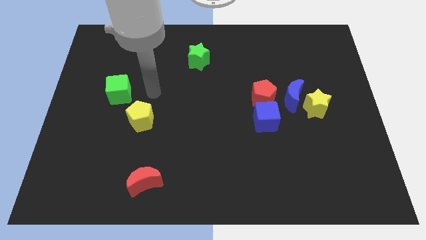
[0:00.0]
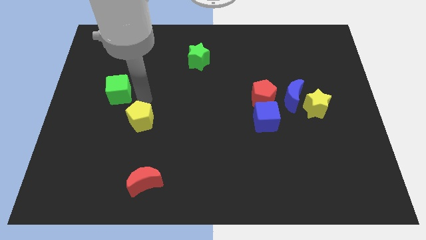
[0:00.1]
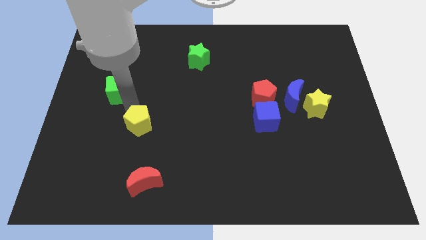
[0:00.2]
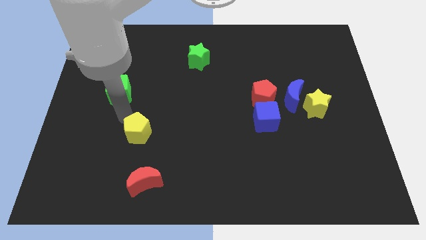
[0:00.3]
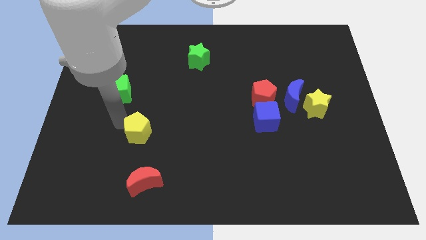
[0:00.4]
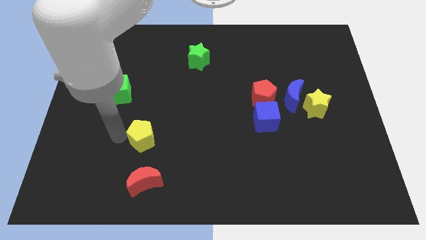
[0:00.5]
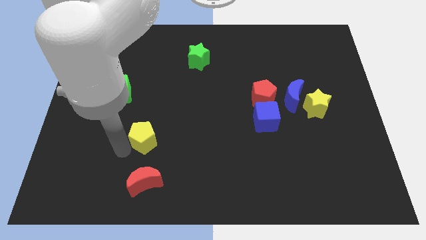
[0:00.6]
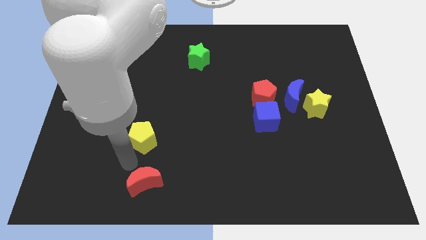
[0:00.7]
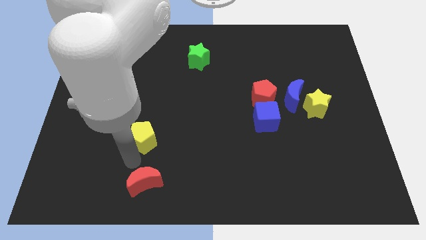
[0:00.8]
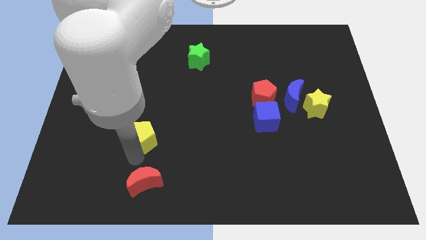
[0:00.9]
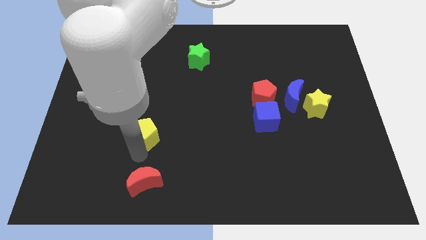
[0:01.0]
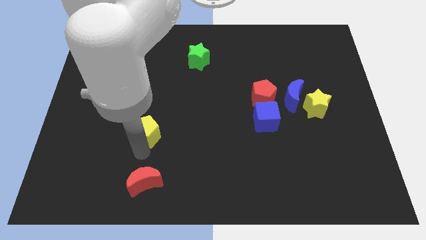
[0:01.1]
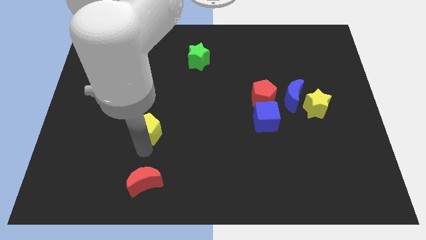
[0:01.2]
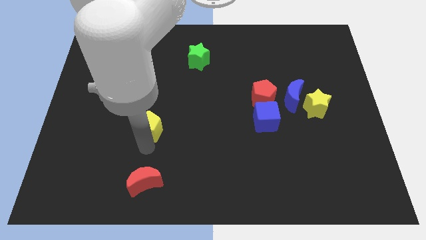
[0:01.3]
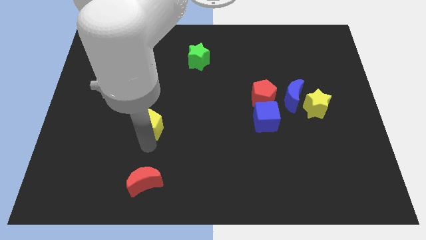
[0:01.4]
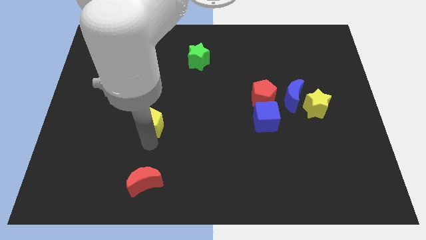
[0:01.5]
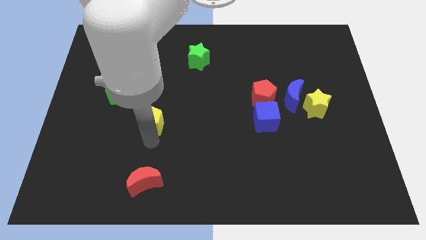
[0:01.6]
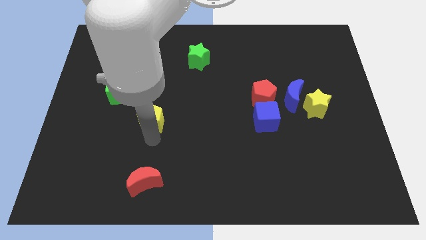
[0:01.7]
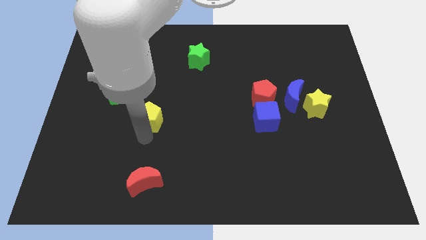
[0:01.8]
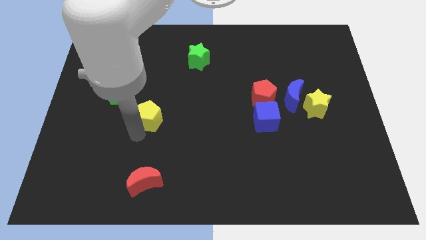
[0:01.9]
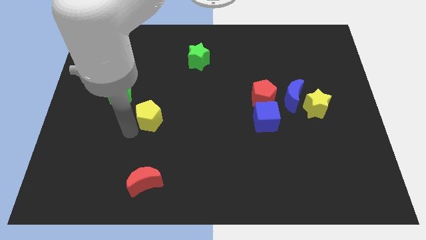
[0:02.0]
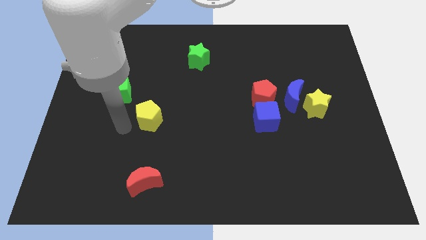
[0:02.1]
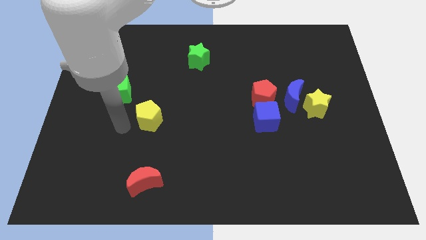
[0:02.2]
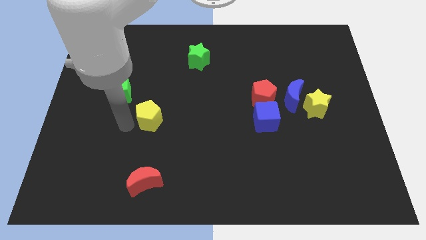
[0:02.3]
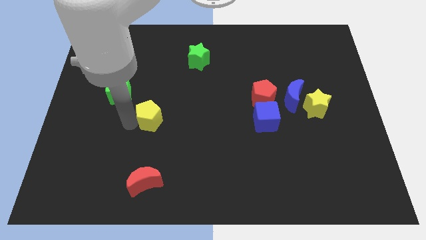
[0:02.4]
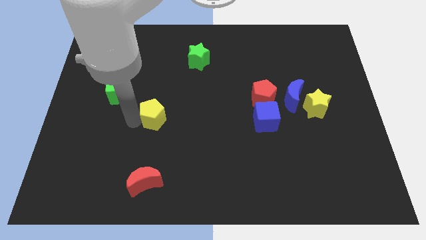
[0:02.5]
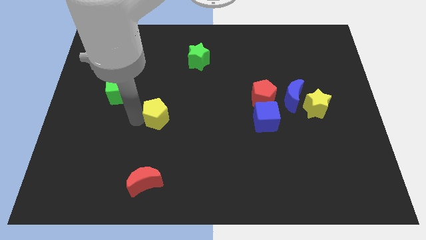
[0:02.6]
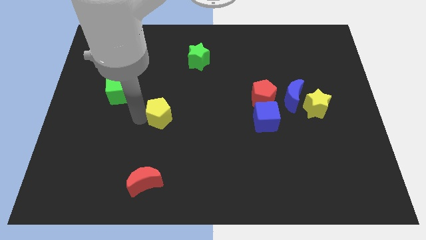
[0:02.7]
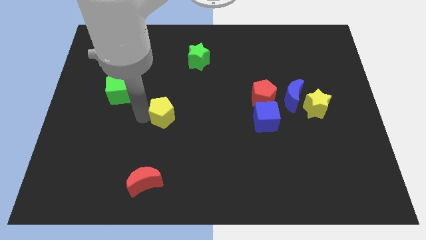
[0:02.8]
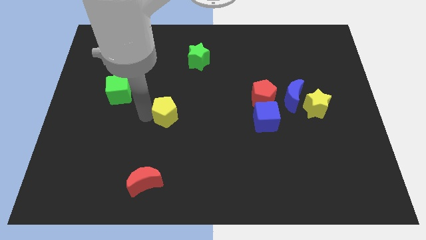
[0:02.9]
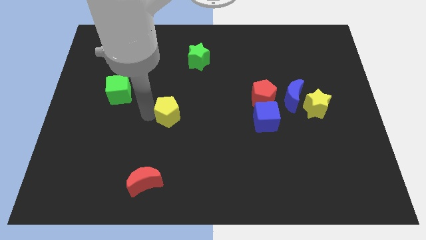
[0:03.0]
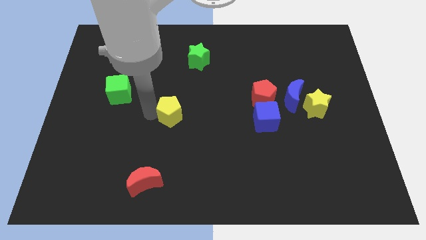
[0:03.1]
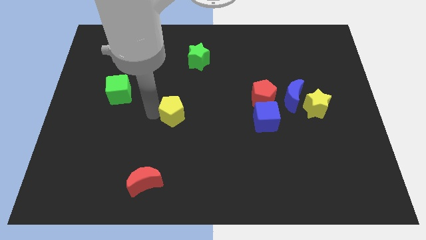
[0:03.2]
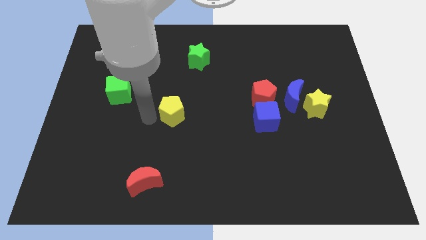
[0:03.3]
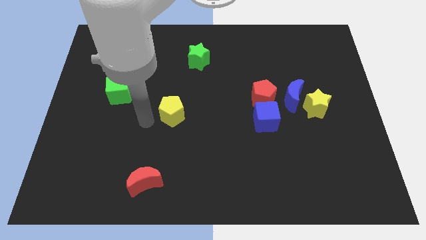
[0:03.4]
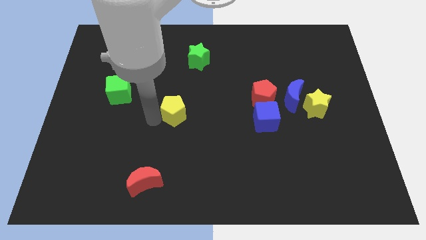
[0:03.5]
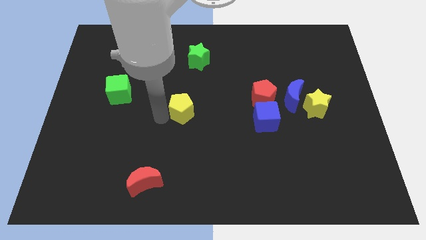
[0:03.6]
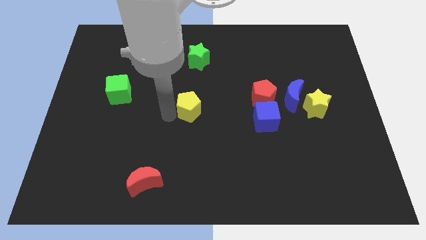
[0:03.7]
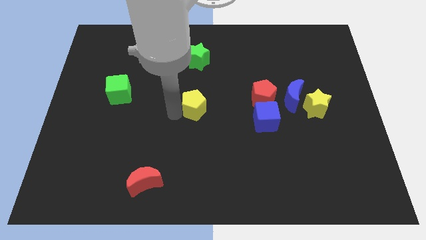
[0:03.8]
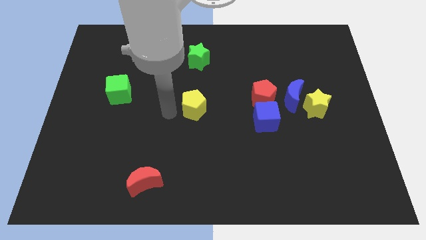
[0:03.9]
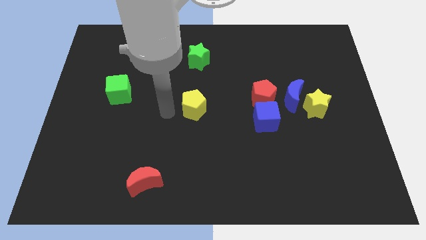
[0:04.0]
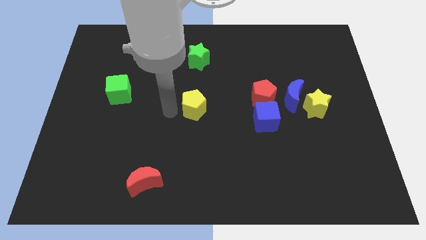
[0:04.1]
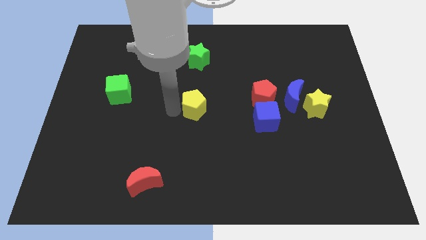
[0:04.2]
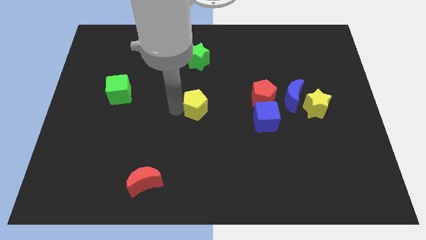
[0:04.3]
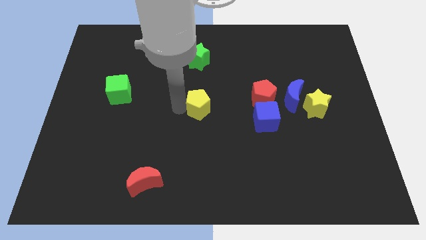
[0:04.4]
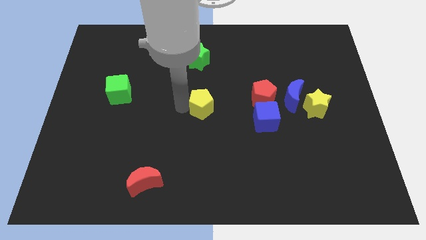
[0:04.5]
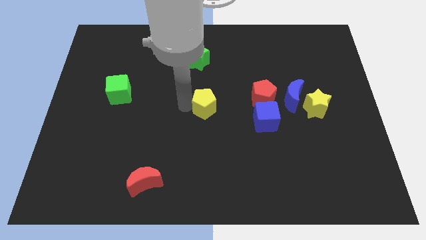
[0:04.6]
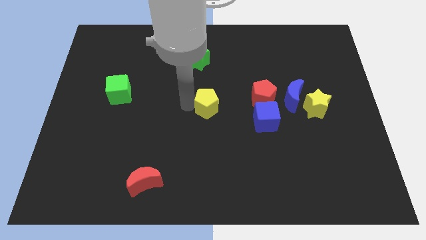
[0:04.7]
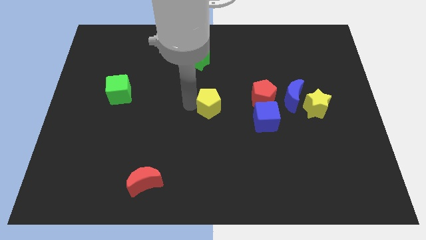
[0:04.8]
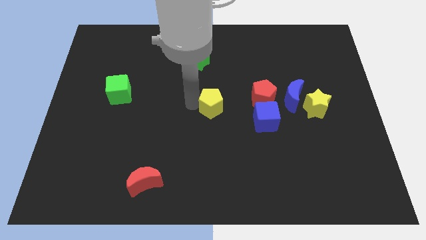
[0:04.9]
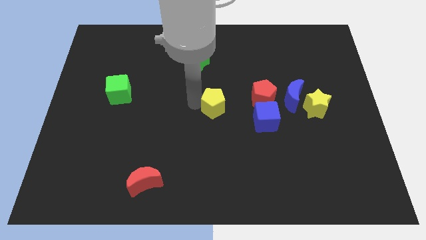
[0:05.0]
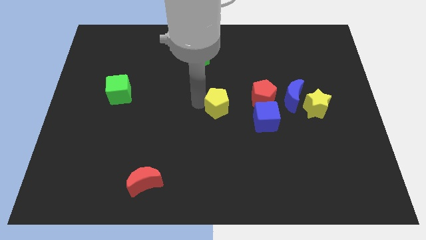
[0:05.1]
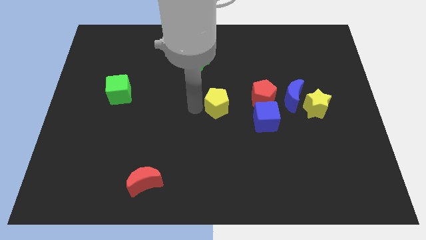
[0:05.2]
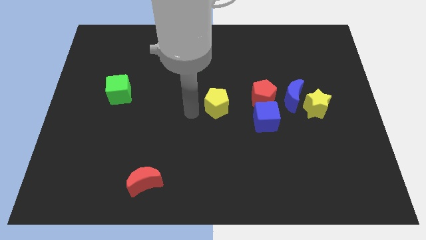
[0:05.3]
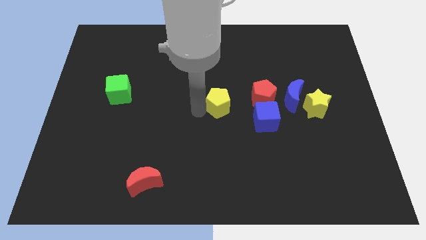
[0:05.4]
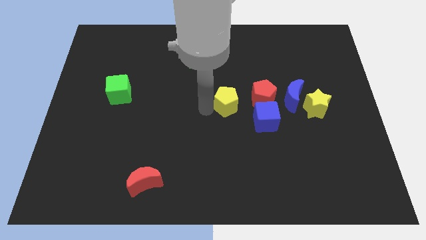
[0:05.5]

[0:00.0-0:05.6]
push the yellow pentagon to the left side of the blue moon

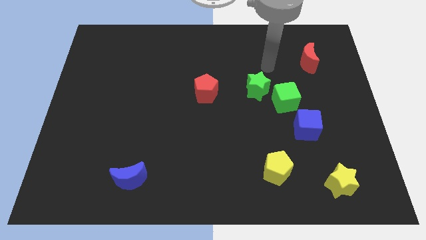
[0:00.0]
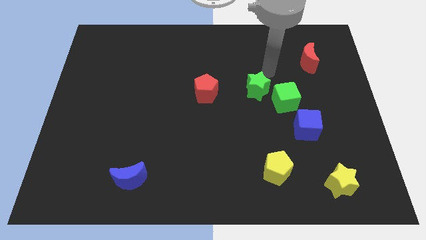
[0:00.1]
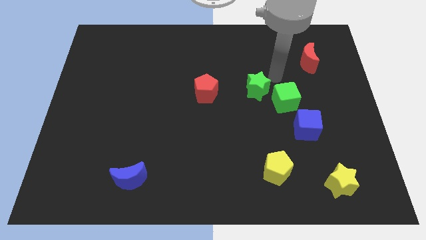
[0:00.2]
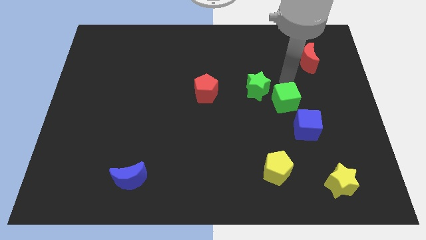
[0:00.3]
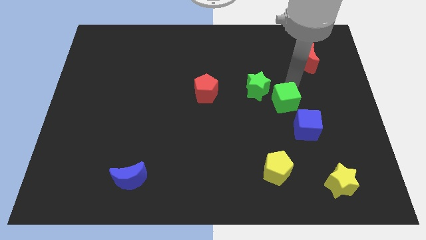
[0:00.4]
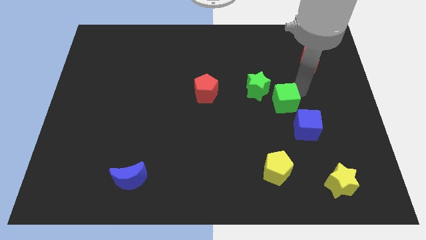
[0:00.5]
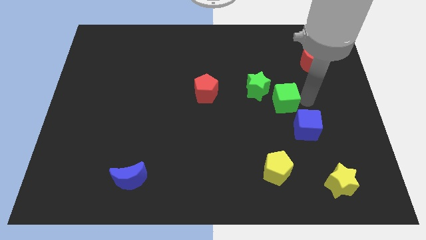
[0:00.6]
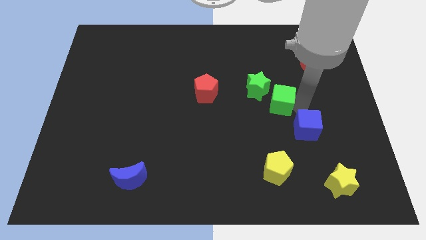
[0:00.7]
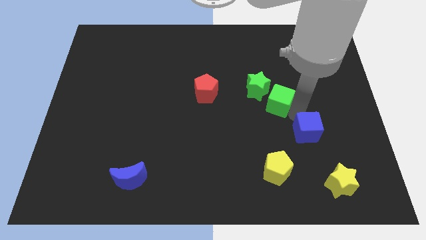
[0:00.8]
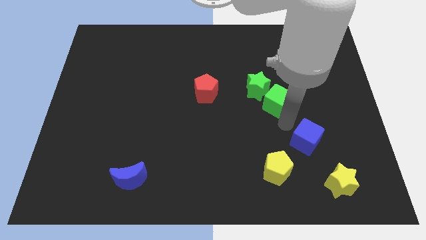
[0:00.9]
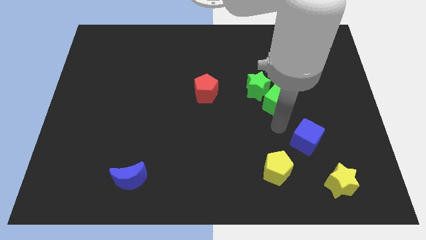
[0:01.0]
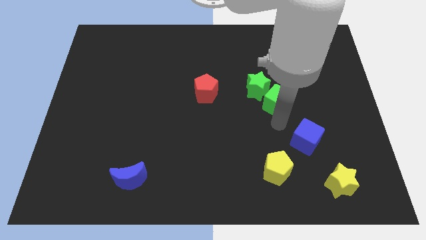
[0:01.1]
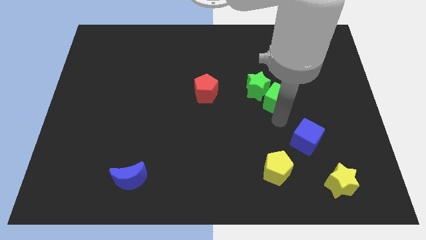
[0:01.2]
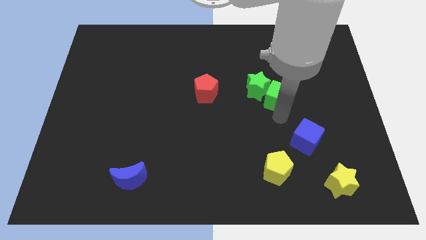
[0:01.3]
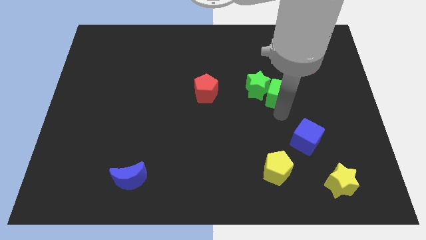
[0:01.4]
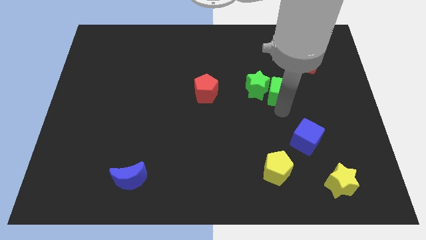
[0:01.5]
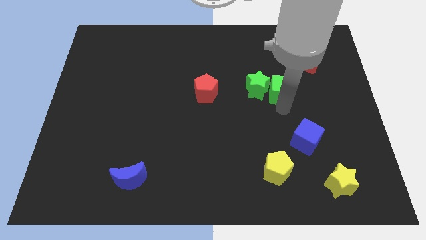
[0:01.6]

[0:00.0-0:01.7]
put the green cube diagonally up and to the right of the green star
